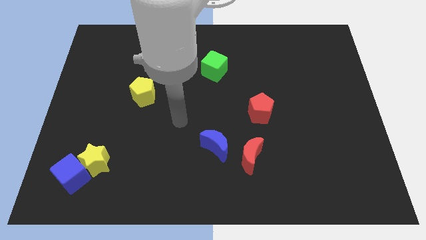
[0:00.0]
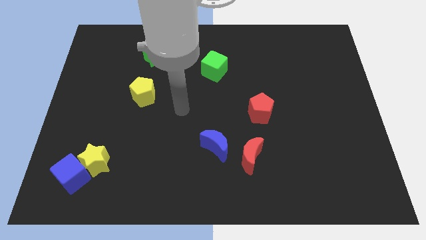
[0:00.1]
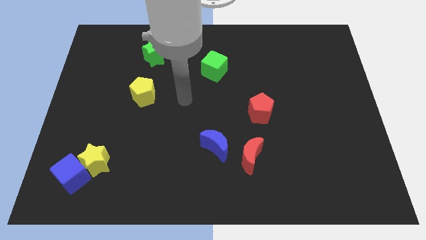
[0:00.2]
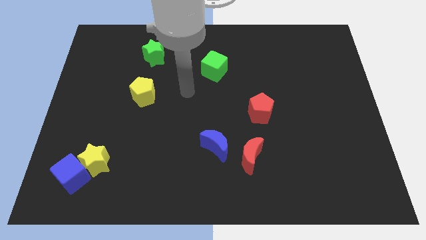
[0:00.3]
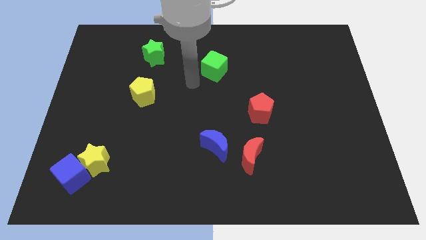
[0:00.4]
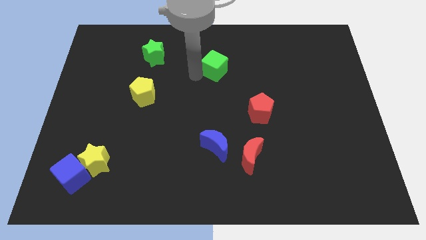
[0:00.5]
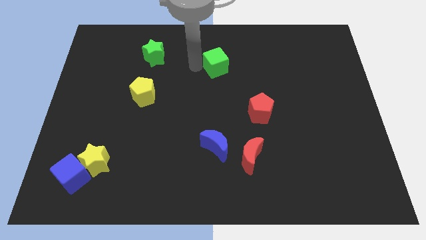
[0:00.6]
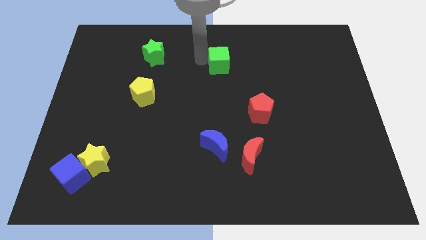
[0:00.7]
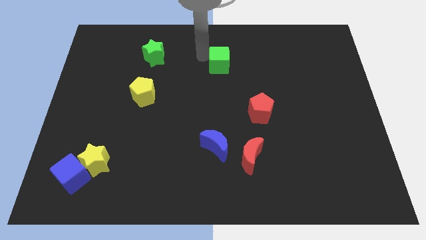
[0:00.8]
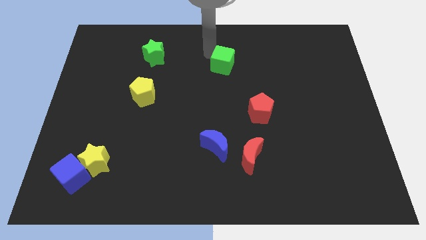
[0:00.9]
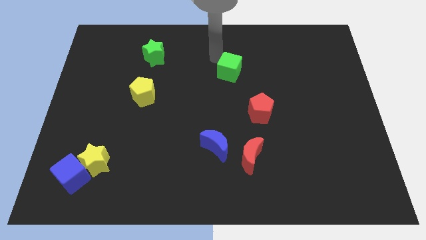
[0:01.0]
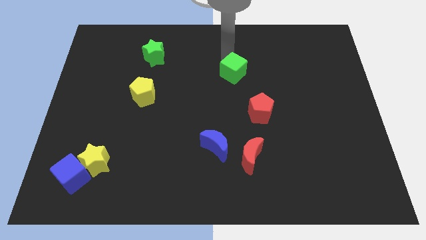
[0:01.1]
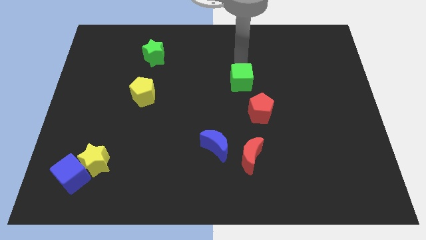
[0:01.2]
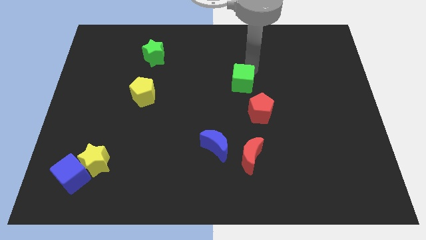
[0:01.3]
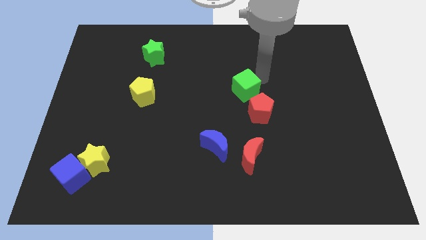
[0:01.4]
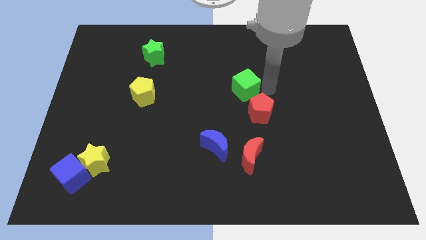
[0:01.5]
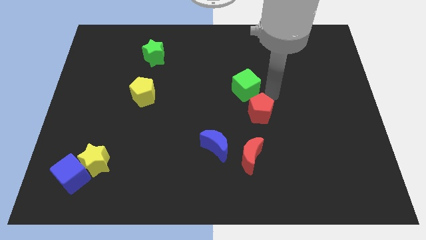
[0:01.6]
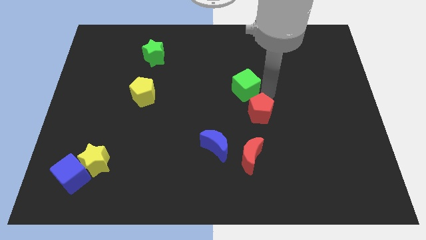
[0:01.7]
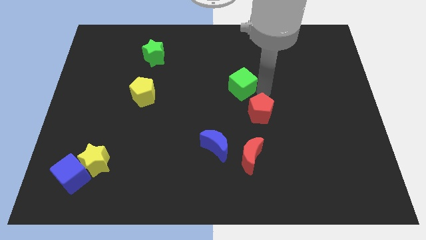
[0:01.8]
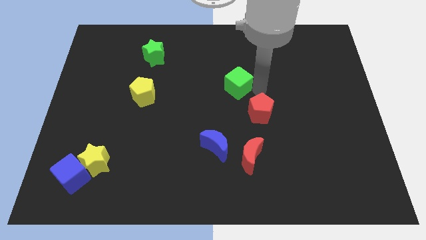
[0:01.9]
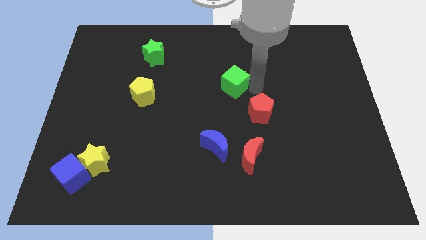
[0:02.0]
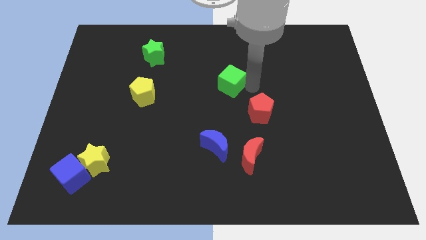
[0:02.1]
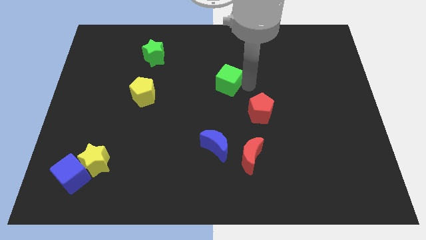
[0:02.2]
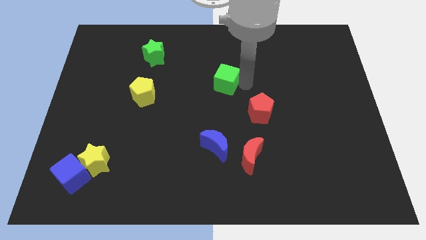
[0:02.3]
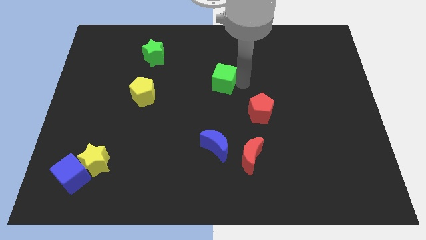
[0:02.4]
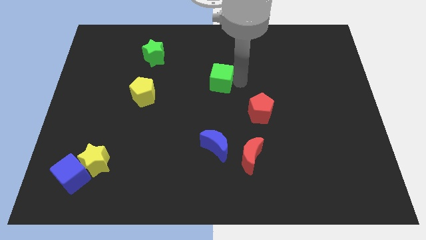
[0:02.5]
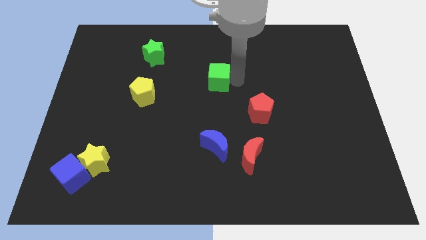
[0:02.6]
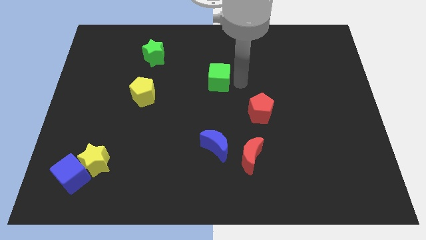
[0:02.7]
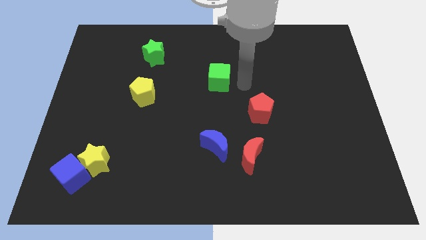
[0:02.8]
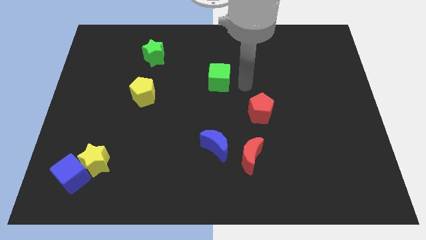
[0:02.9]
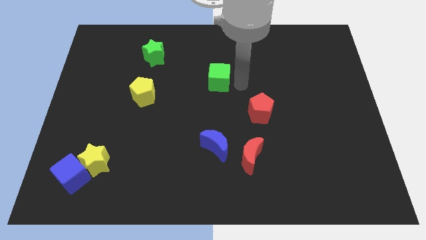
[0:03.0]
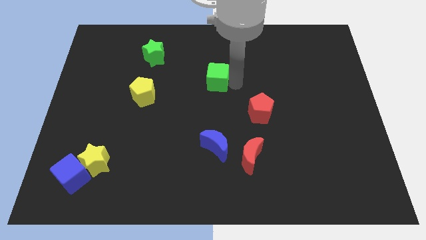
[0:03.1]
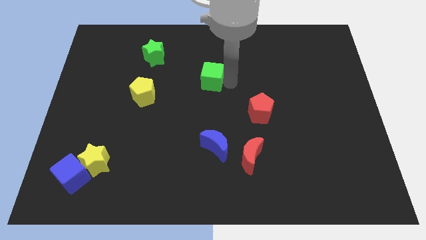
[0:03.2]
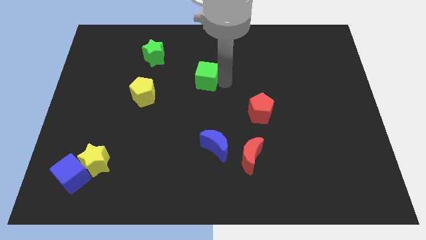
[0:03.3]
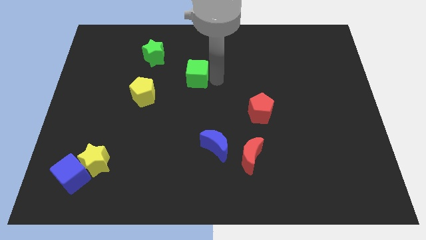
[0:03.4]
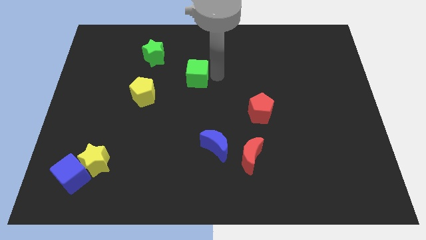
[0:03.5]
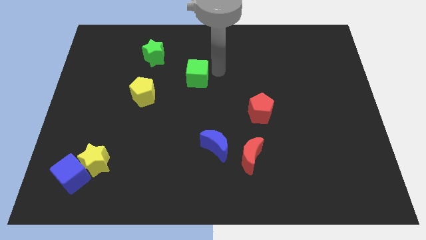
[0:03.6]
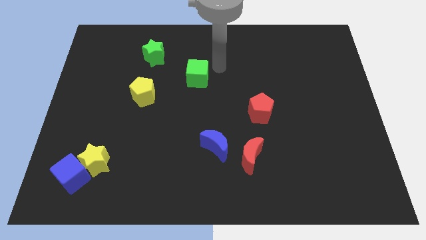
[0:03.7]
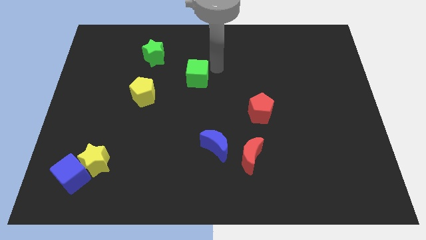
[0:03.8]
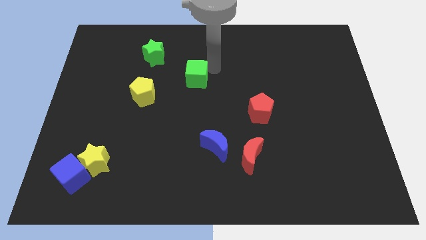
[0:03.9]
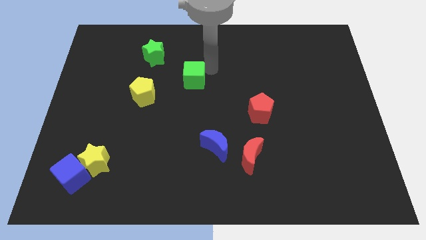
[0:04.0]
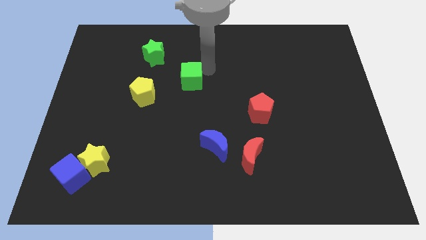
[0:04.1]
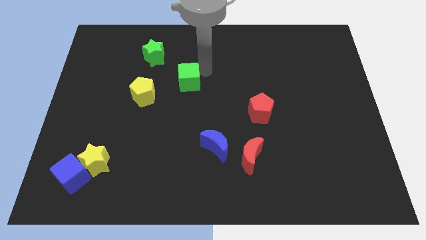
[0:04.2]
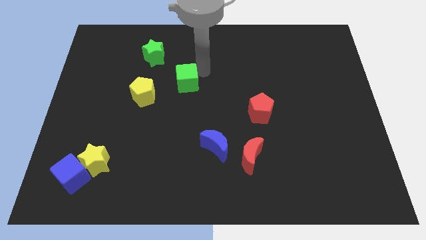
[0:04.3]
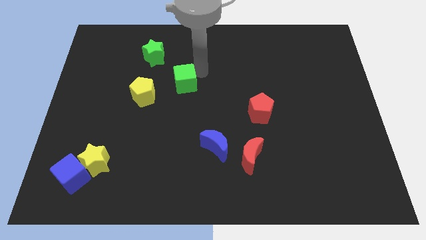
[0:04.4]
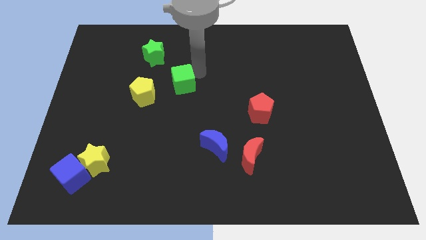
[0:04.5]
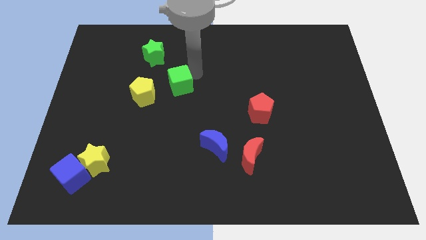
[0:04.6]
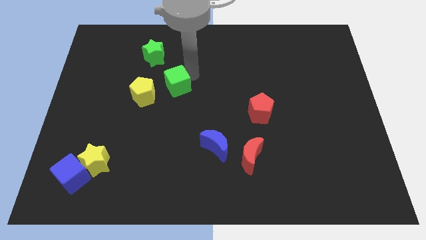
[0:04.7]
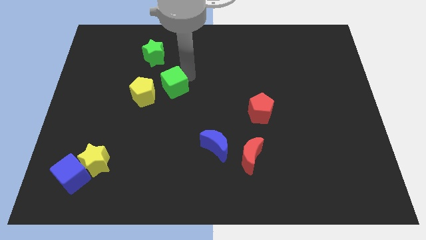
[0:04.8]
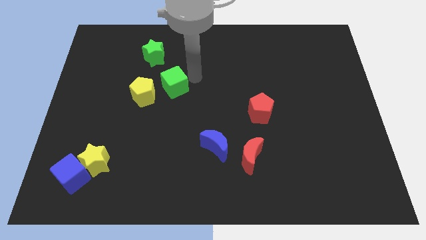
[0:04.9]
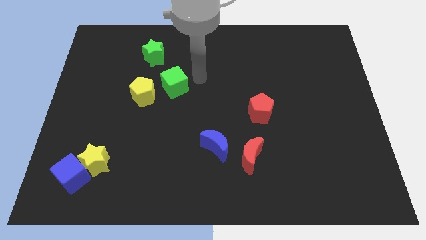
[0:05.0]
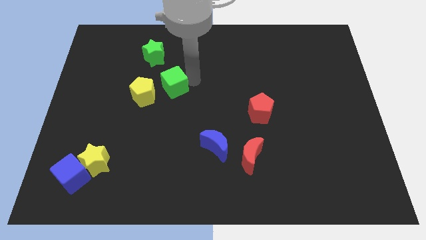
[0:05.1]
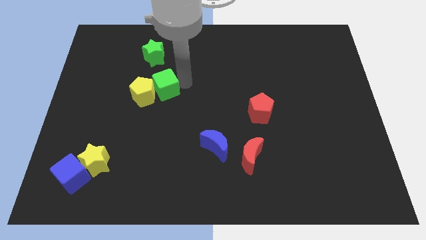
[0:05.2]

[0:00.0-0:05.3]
put the green cube close to the yellow pentagon
